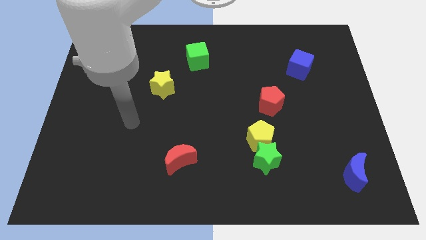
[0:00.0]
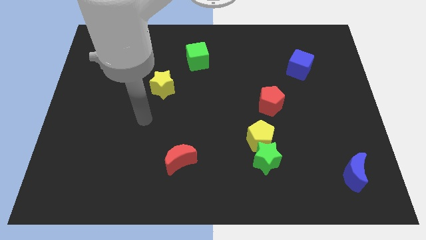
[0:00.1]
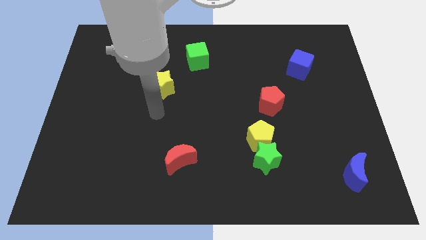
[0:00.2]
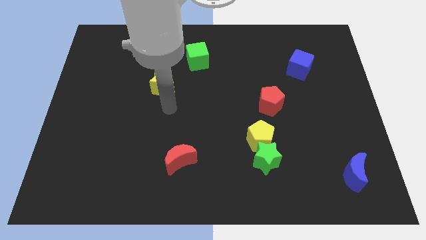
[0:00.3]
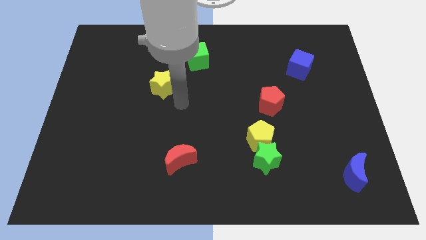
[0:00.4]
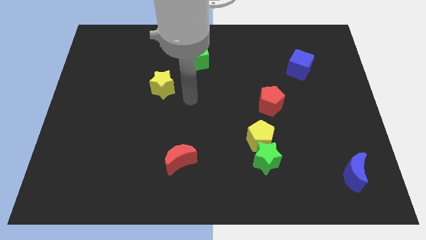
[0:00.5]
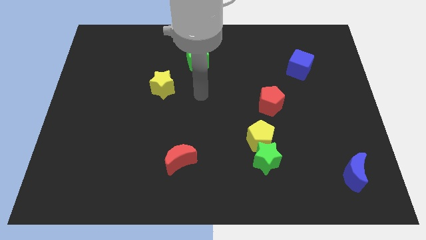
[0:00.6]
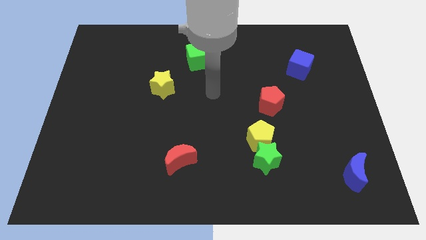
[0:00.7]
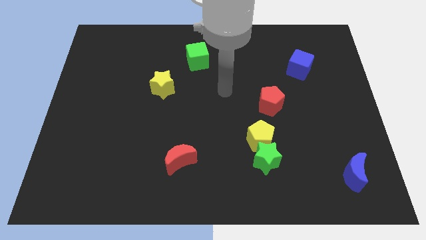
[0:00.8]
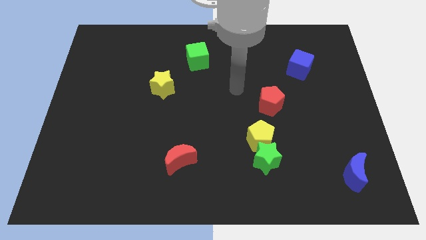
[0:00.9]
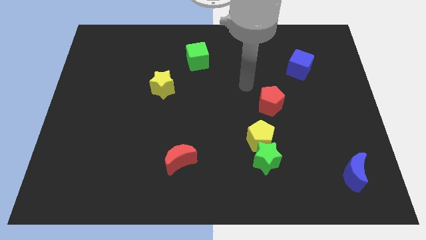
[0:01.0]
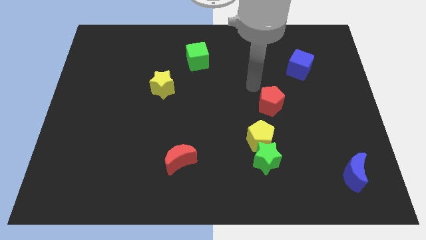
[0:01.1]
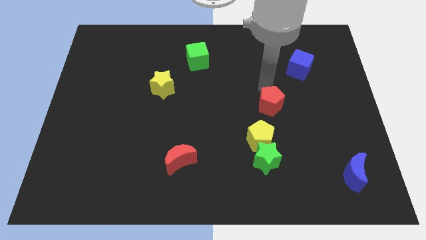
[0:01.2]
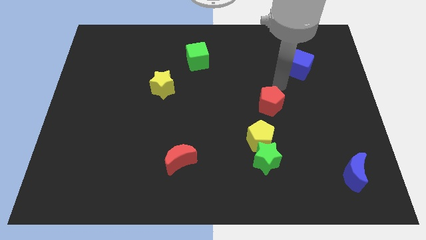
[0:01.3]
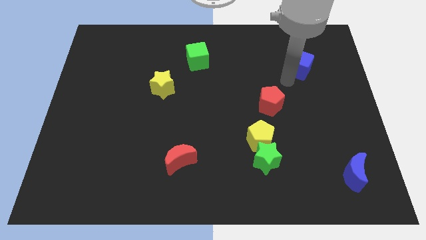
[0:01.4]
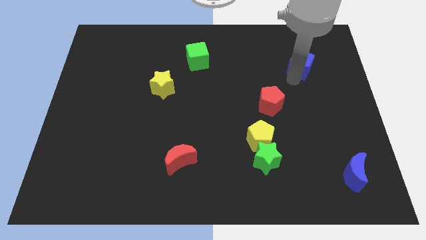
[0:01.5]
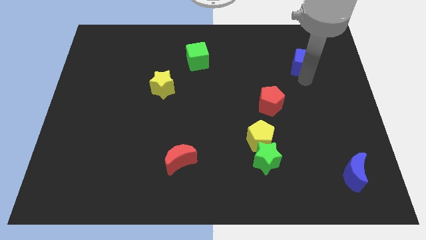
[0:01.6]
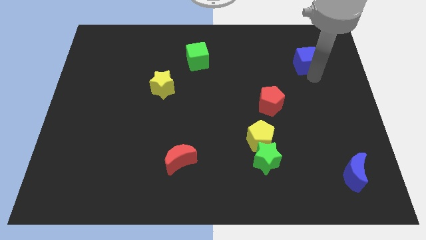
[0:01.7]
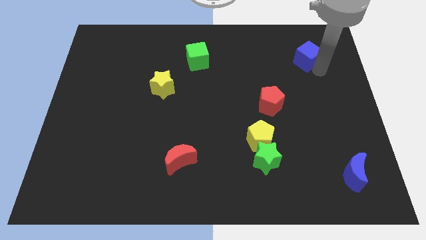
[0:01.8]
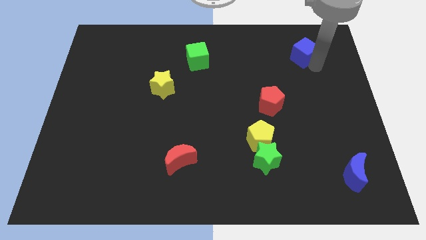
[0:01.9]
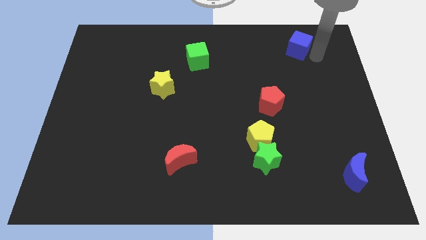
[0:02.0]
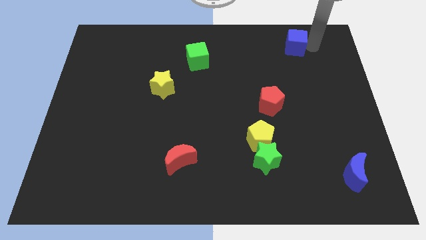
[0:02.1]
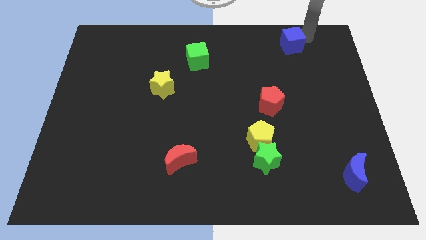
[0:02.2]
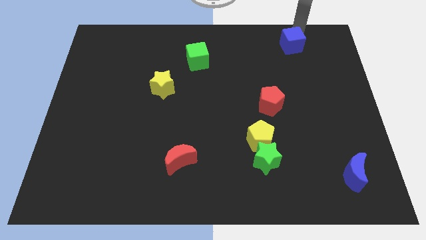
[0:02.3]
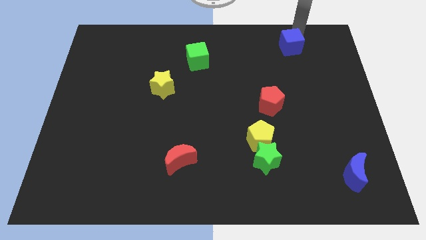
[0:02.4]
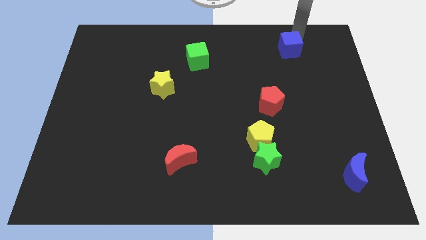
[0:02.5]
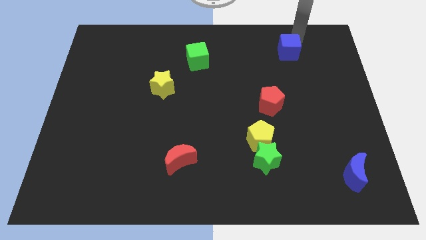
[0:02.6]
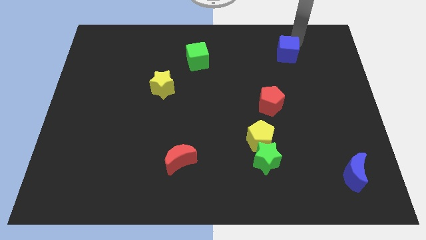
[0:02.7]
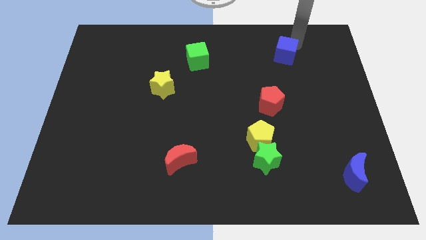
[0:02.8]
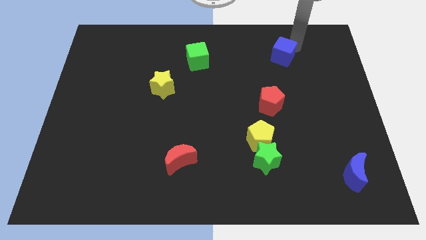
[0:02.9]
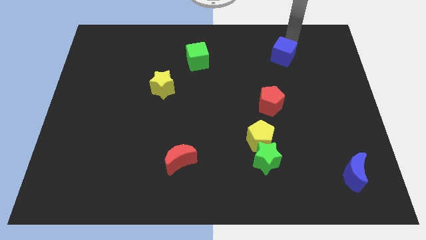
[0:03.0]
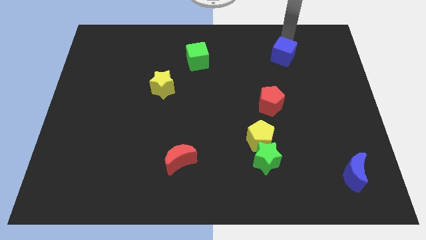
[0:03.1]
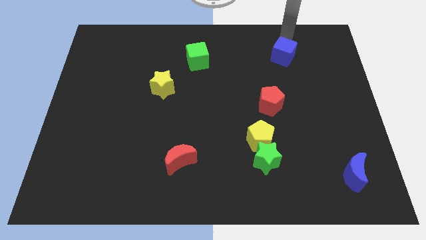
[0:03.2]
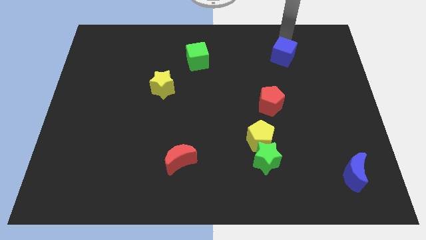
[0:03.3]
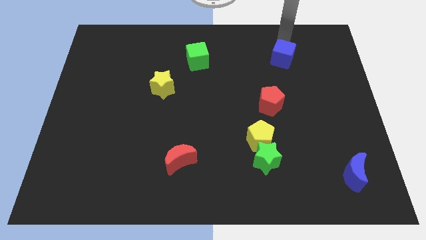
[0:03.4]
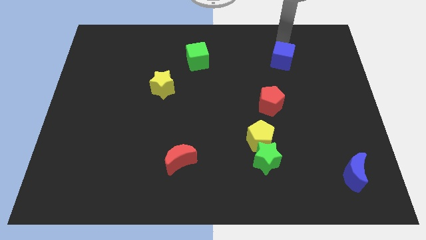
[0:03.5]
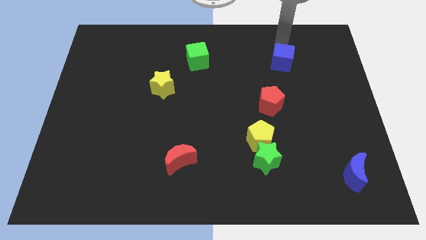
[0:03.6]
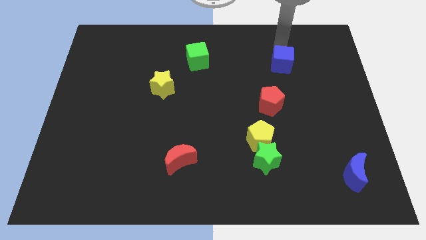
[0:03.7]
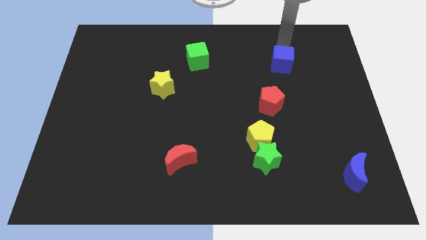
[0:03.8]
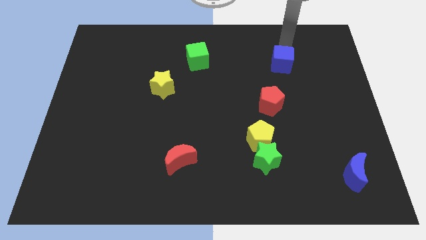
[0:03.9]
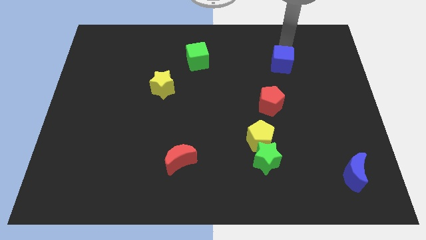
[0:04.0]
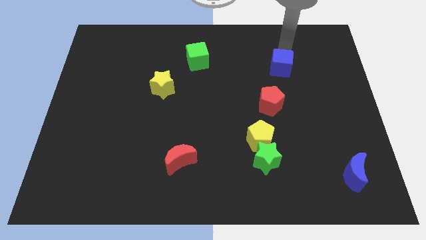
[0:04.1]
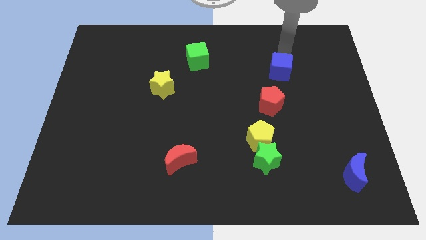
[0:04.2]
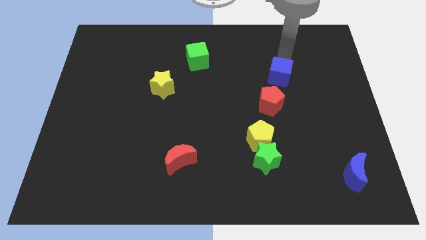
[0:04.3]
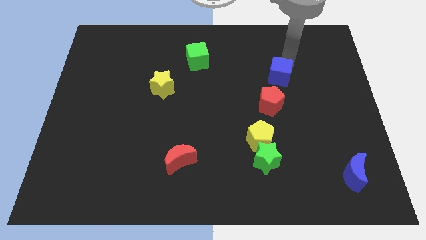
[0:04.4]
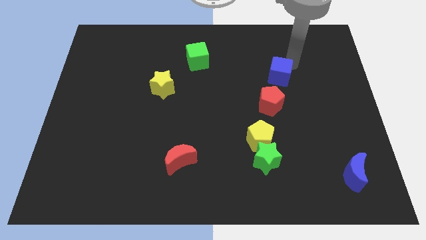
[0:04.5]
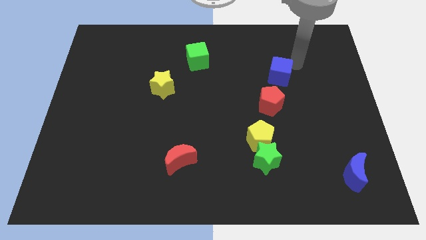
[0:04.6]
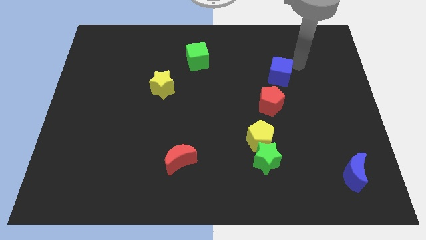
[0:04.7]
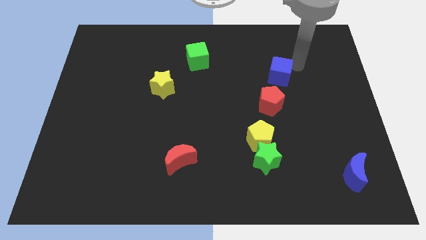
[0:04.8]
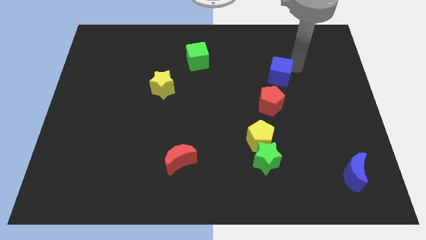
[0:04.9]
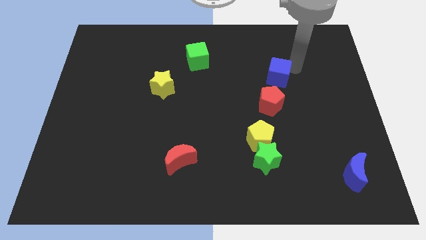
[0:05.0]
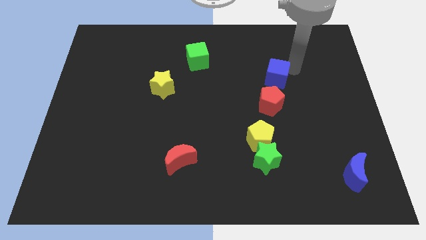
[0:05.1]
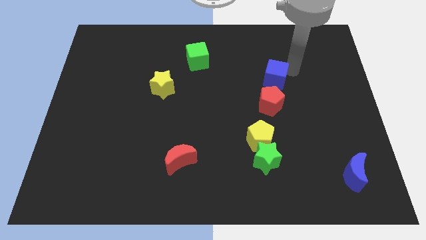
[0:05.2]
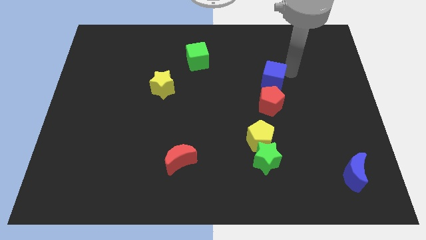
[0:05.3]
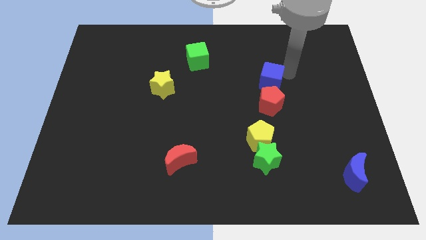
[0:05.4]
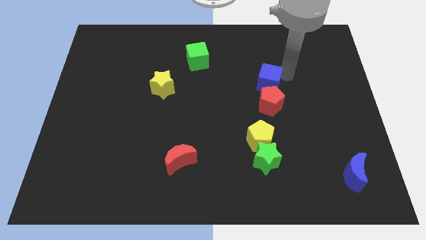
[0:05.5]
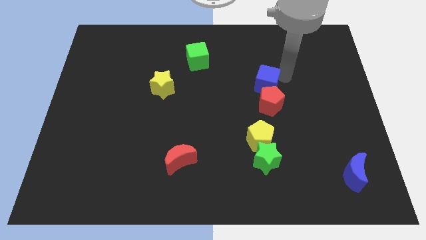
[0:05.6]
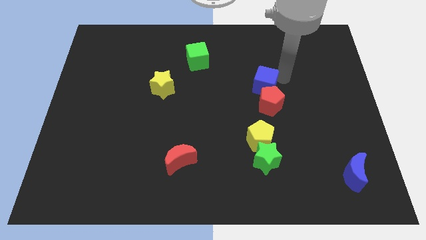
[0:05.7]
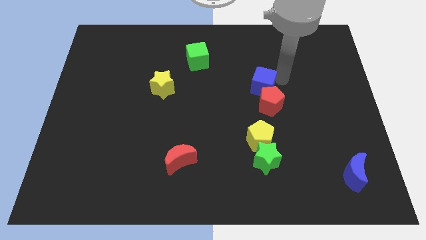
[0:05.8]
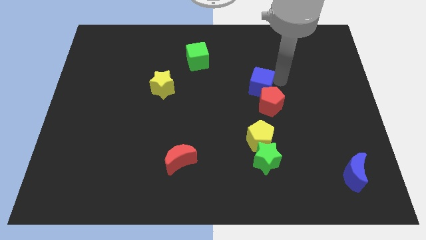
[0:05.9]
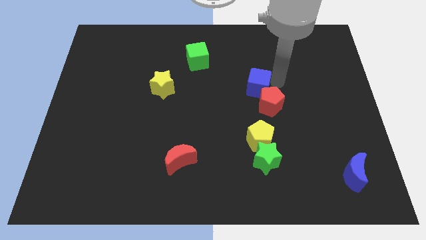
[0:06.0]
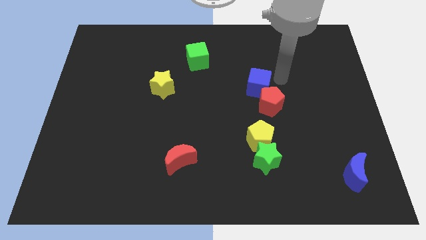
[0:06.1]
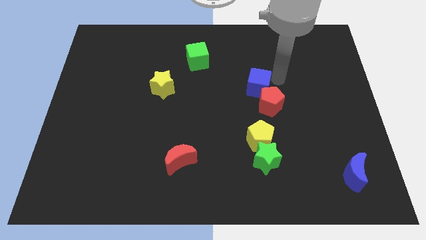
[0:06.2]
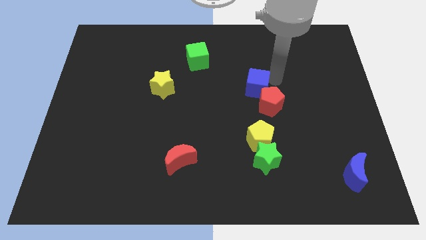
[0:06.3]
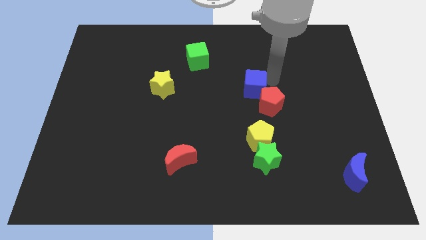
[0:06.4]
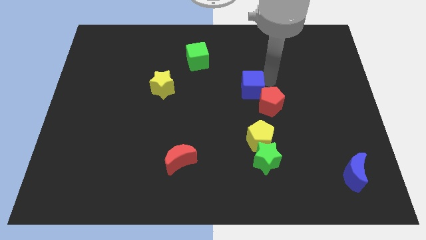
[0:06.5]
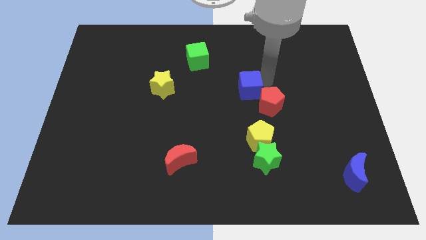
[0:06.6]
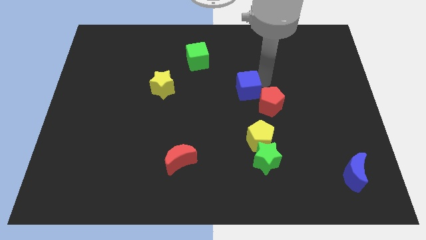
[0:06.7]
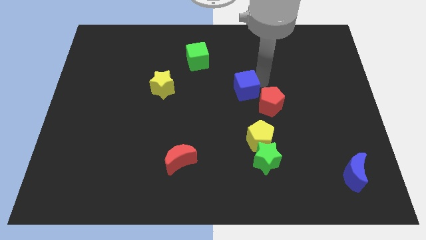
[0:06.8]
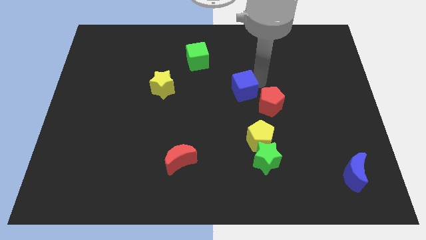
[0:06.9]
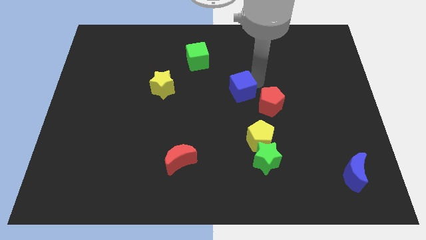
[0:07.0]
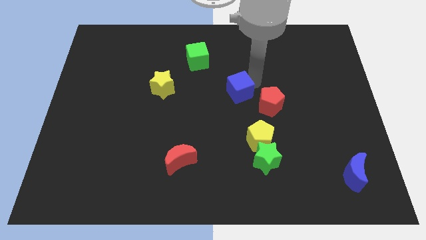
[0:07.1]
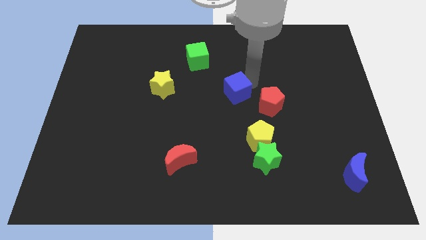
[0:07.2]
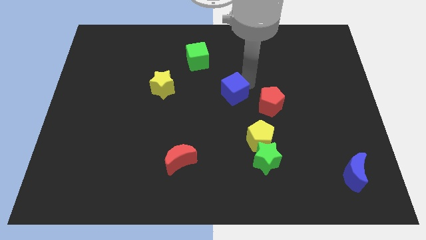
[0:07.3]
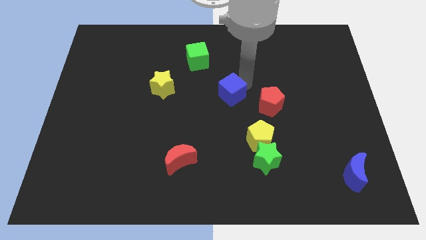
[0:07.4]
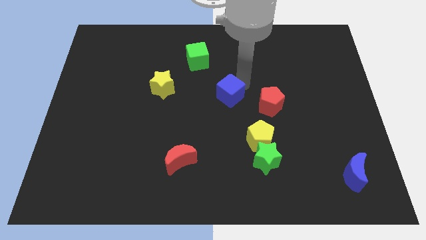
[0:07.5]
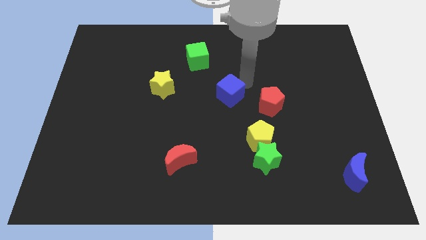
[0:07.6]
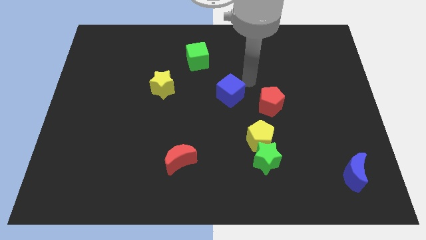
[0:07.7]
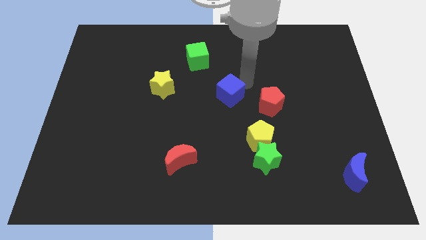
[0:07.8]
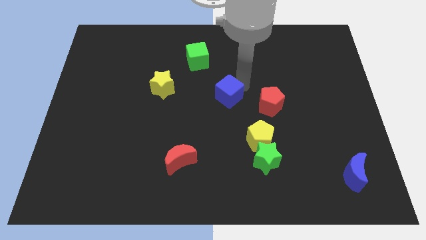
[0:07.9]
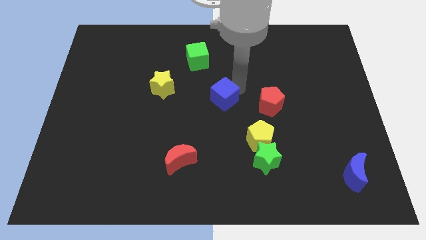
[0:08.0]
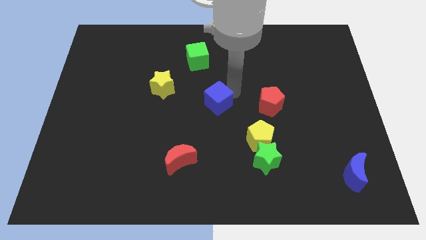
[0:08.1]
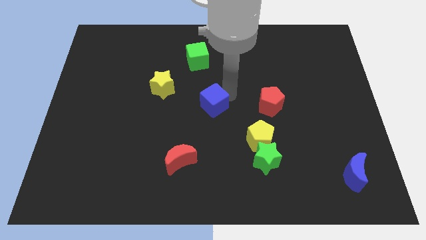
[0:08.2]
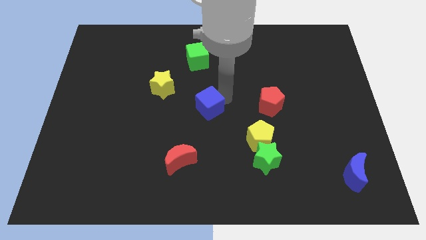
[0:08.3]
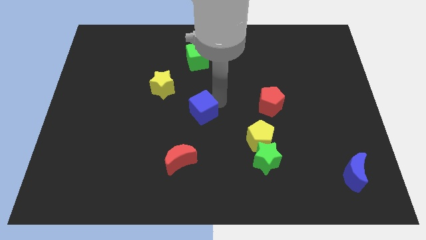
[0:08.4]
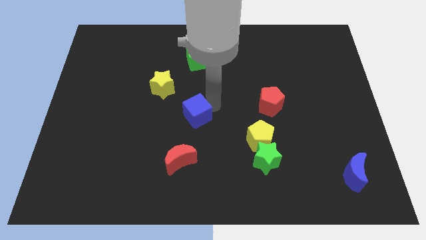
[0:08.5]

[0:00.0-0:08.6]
put the blue cube to the top side of the red moon
